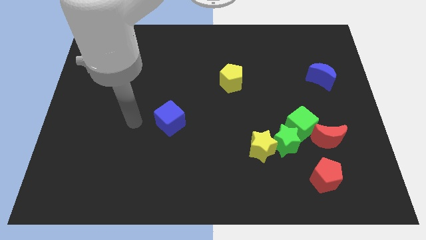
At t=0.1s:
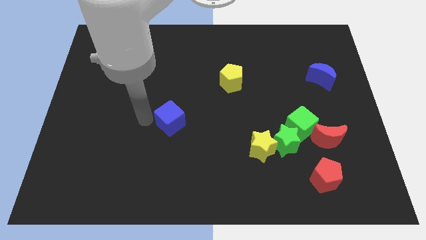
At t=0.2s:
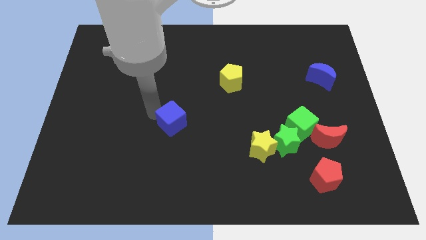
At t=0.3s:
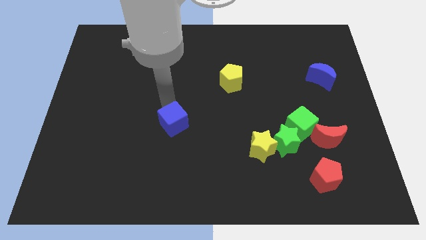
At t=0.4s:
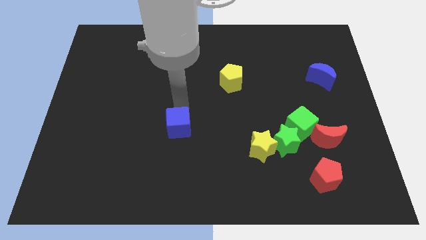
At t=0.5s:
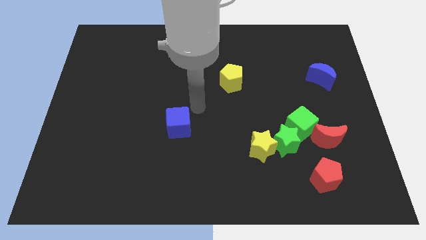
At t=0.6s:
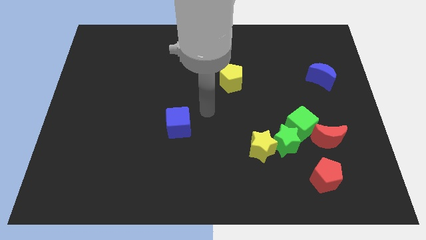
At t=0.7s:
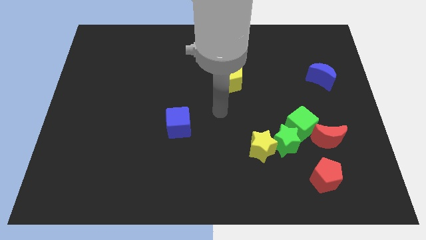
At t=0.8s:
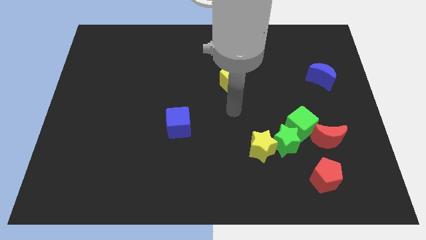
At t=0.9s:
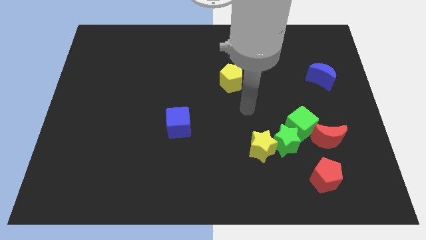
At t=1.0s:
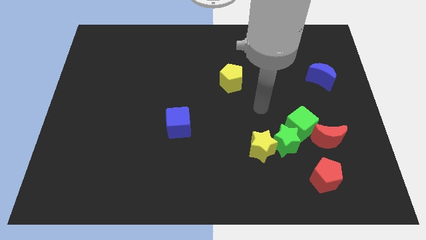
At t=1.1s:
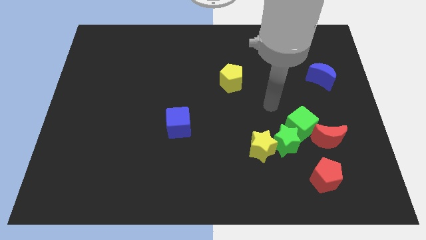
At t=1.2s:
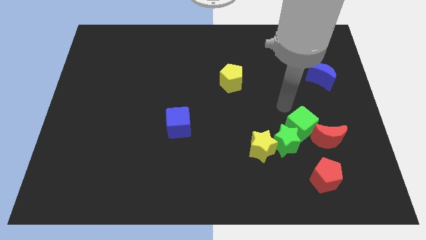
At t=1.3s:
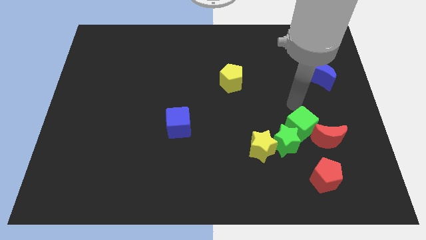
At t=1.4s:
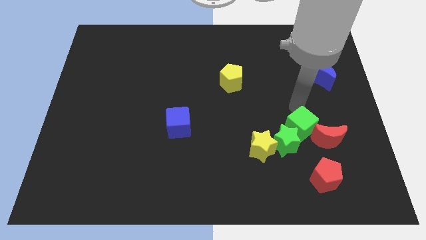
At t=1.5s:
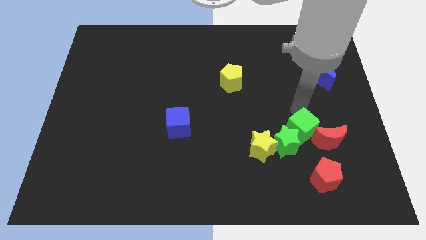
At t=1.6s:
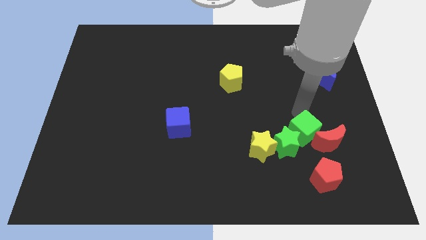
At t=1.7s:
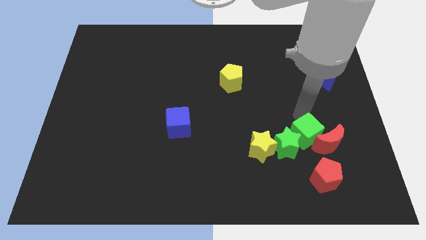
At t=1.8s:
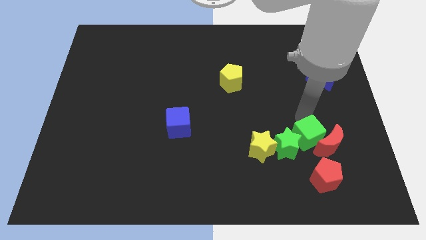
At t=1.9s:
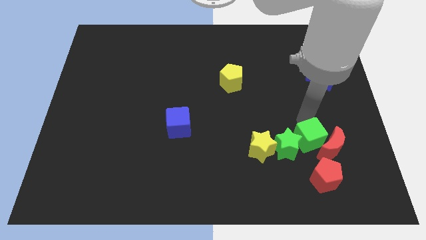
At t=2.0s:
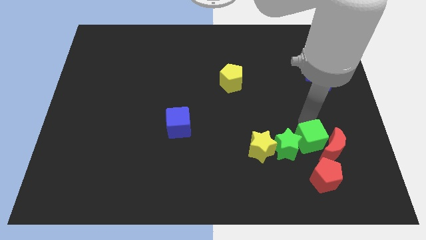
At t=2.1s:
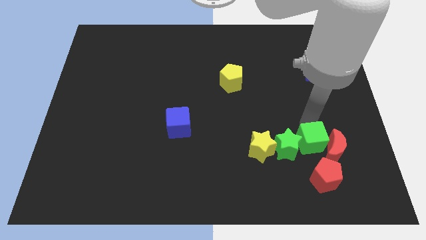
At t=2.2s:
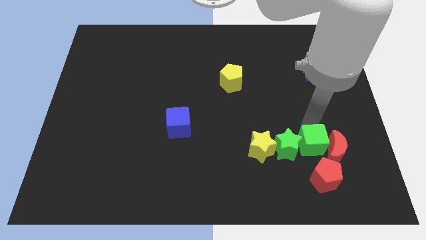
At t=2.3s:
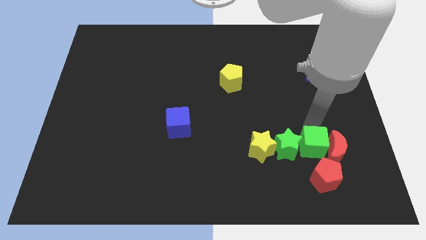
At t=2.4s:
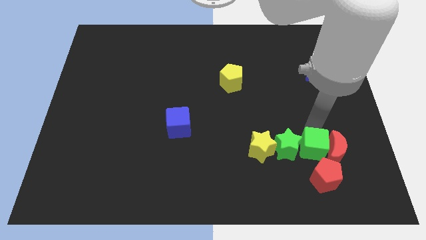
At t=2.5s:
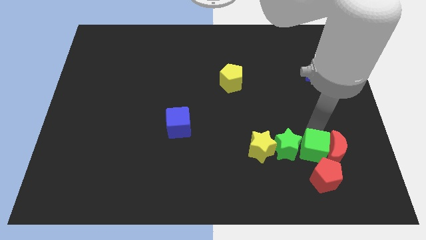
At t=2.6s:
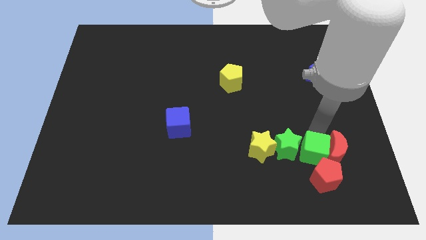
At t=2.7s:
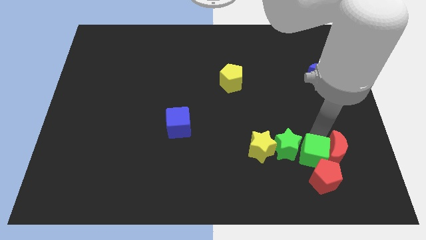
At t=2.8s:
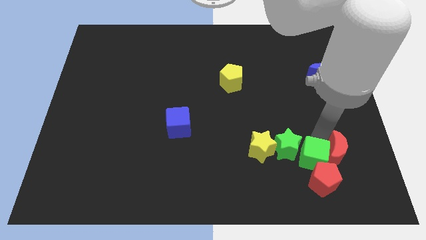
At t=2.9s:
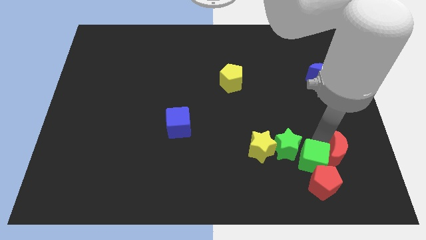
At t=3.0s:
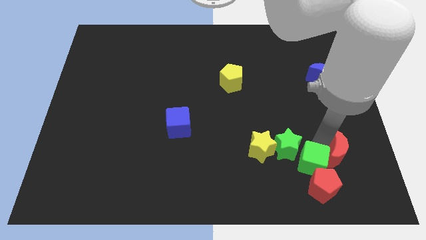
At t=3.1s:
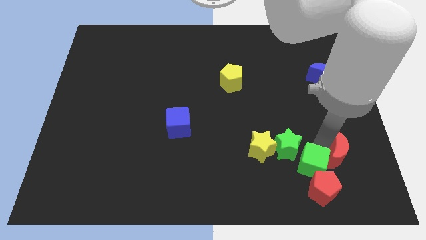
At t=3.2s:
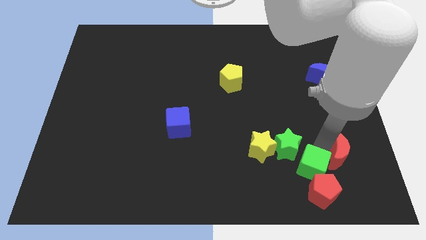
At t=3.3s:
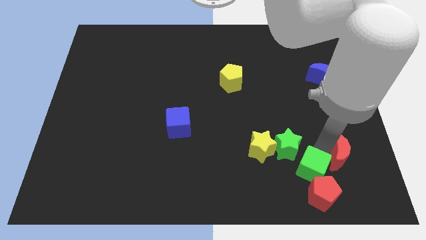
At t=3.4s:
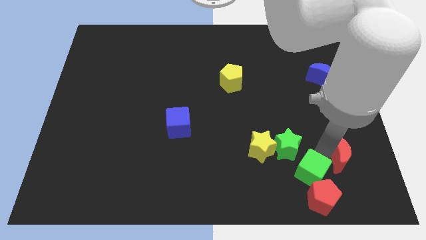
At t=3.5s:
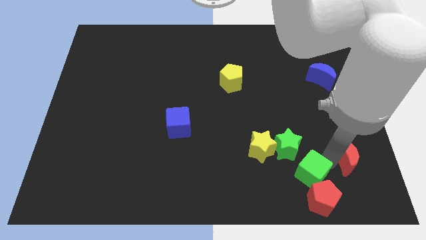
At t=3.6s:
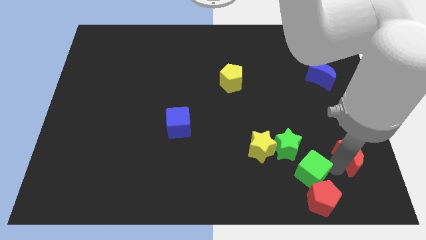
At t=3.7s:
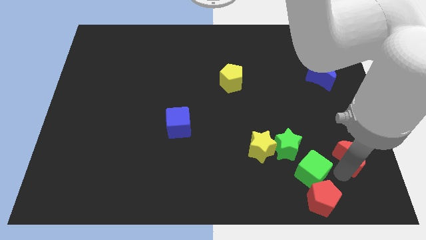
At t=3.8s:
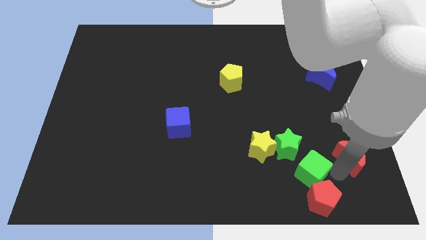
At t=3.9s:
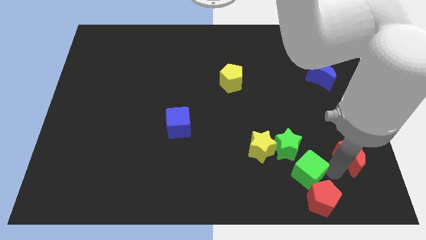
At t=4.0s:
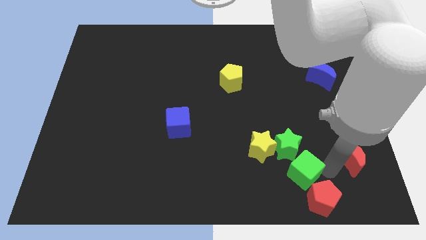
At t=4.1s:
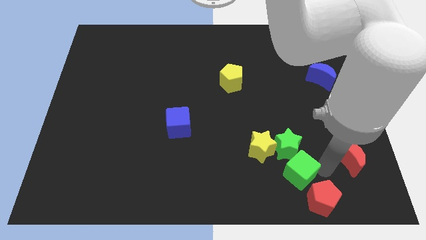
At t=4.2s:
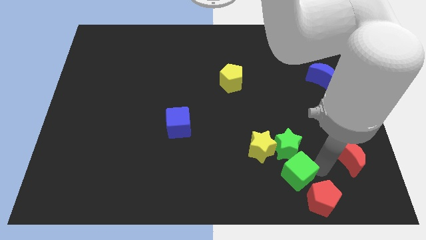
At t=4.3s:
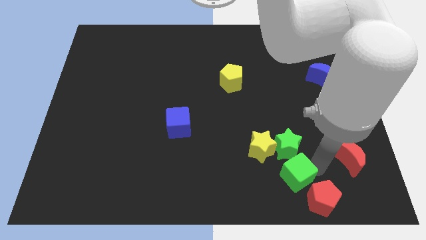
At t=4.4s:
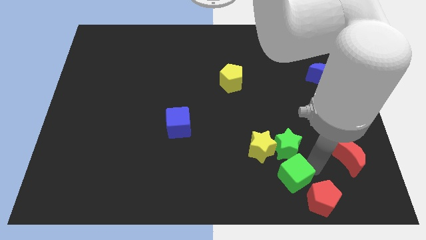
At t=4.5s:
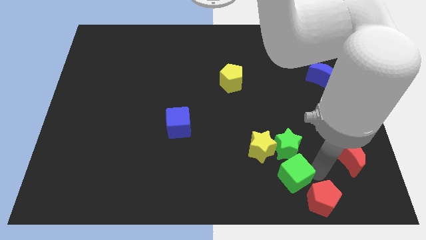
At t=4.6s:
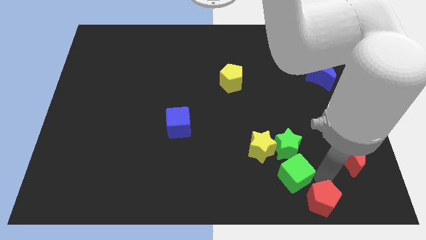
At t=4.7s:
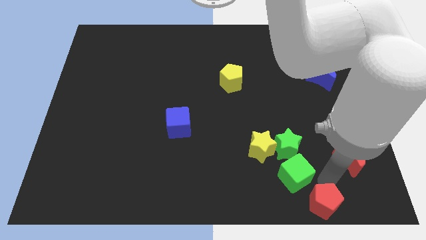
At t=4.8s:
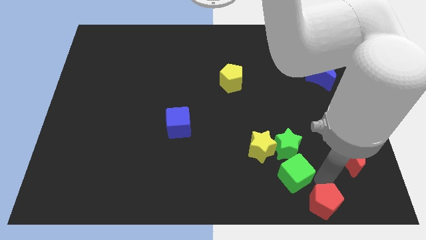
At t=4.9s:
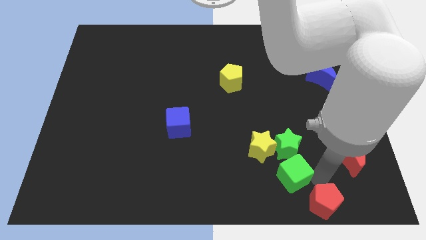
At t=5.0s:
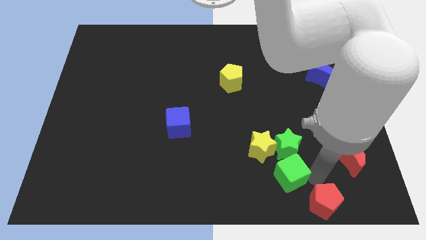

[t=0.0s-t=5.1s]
put the green cube diagonally down and to the left of the green star

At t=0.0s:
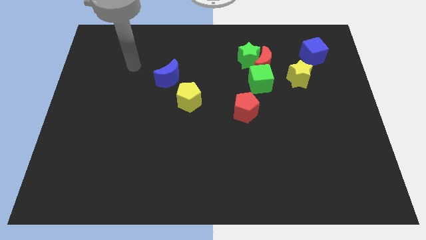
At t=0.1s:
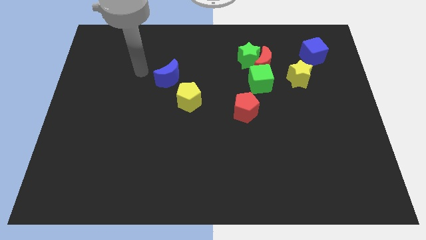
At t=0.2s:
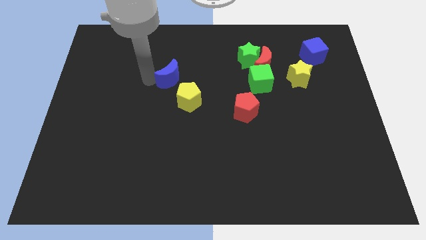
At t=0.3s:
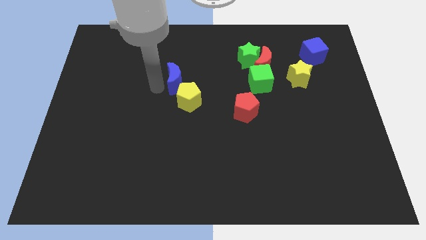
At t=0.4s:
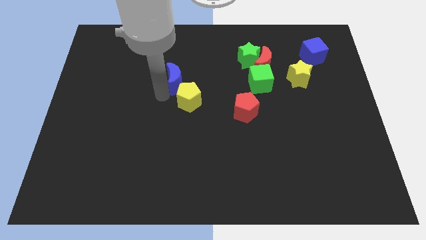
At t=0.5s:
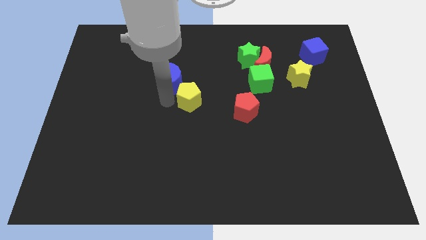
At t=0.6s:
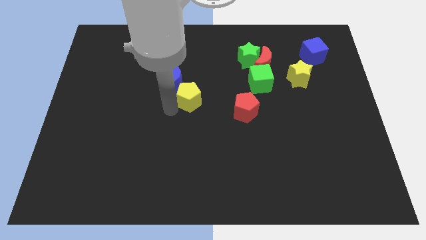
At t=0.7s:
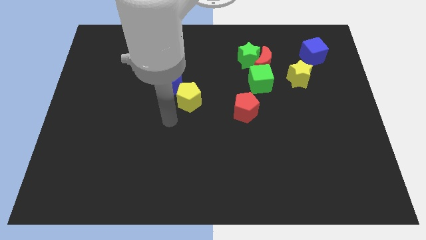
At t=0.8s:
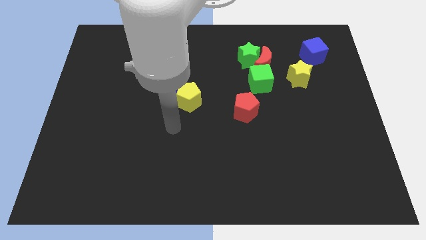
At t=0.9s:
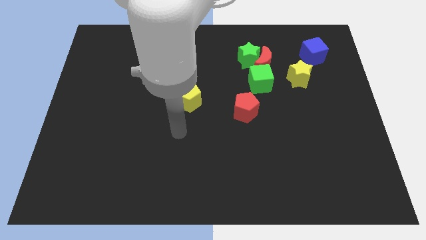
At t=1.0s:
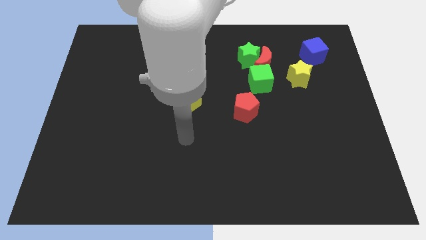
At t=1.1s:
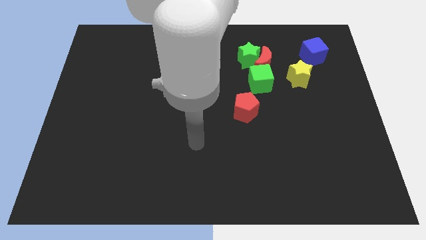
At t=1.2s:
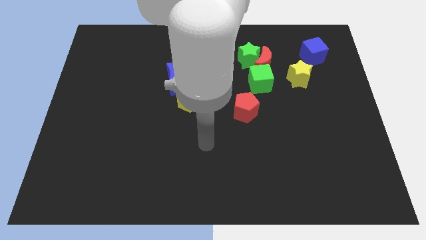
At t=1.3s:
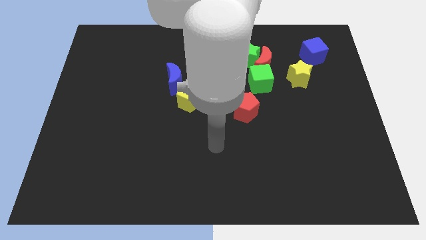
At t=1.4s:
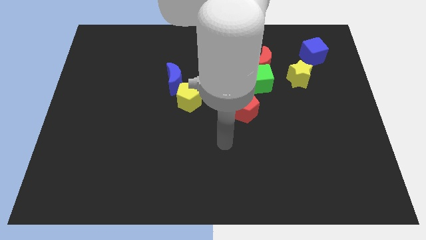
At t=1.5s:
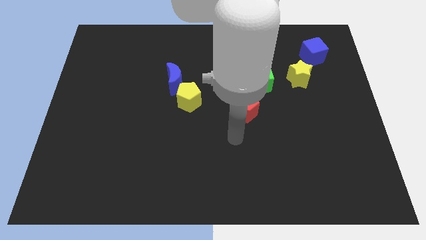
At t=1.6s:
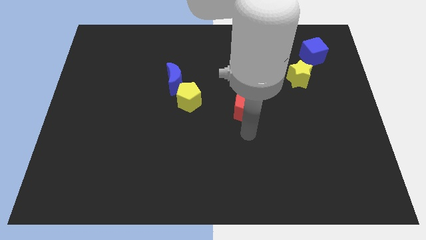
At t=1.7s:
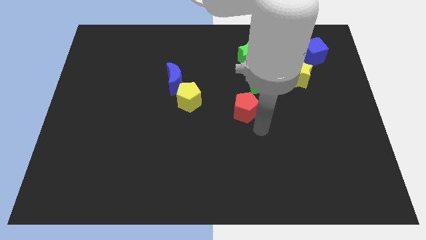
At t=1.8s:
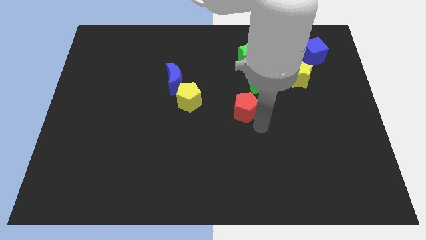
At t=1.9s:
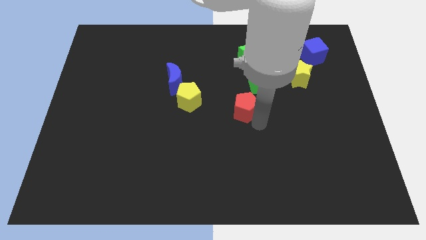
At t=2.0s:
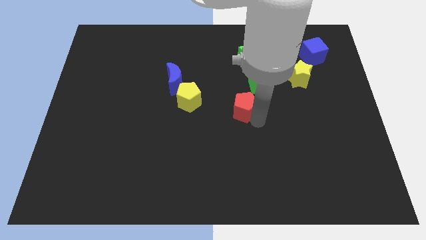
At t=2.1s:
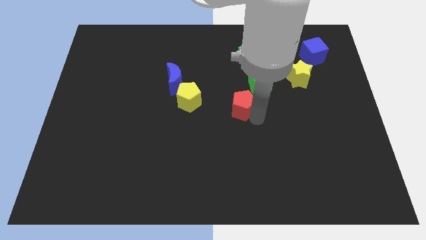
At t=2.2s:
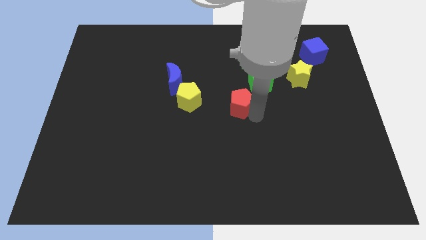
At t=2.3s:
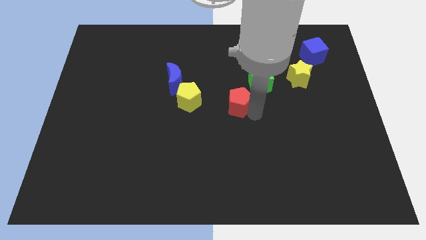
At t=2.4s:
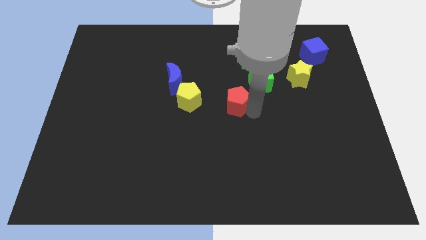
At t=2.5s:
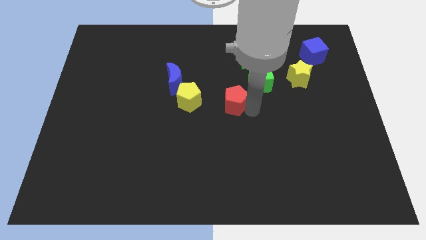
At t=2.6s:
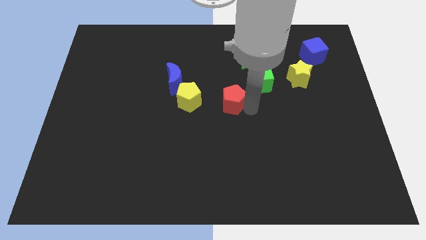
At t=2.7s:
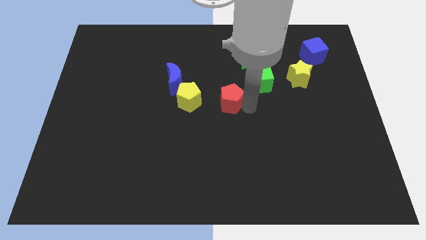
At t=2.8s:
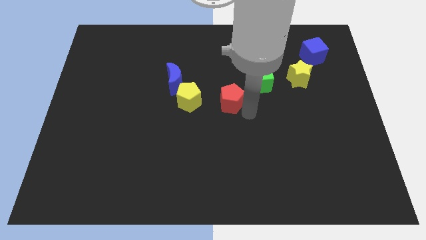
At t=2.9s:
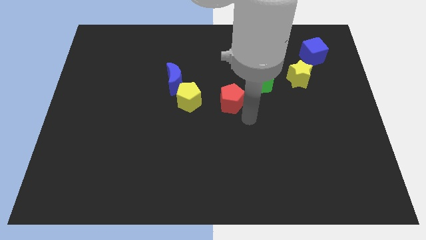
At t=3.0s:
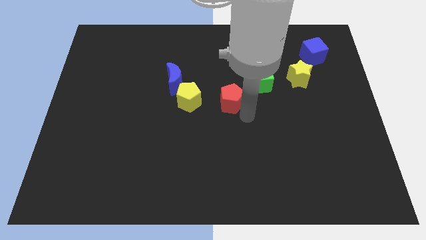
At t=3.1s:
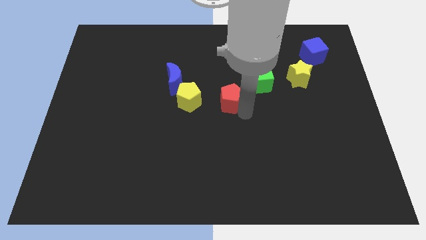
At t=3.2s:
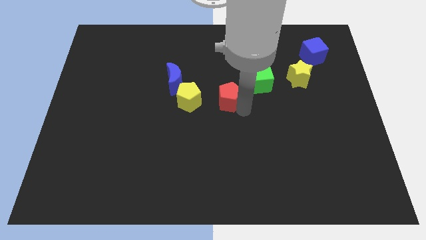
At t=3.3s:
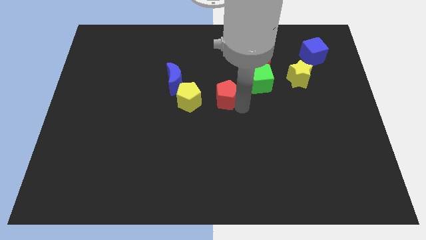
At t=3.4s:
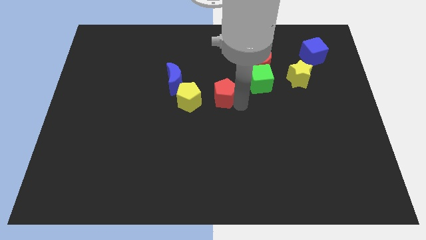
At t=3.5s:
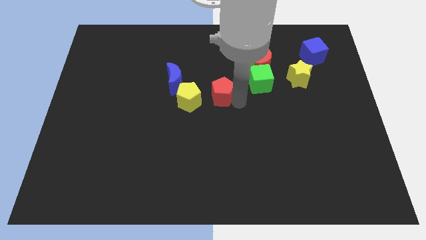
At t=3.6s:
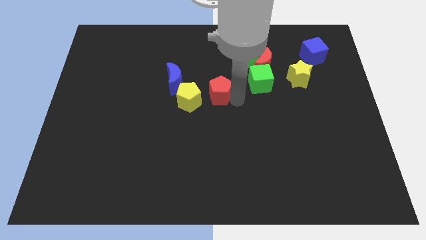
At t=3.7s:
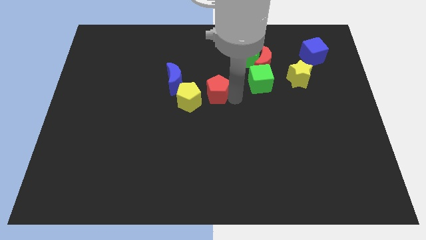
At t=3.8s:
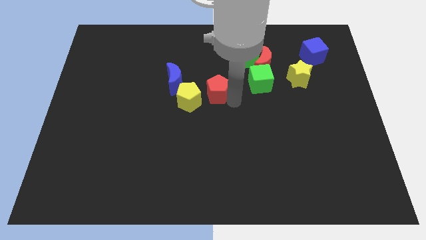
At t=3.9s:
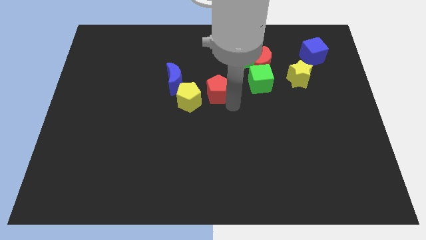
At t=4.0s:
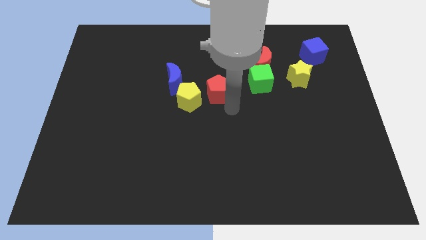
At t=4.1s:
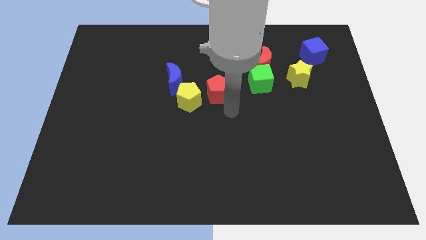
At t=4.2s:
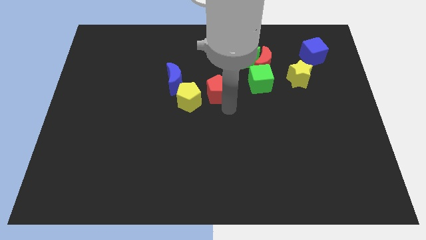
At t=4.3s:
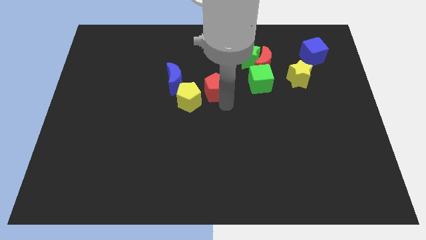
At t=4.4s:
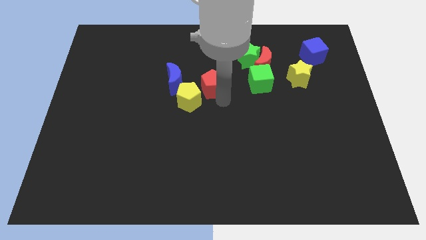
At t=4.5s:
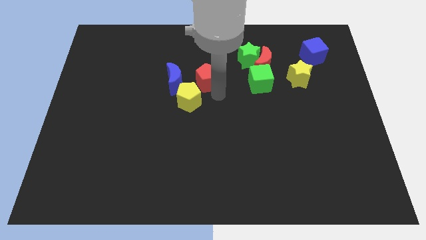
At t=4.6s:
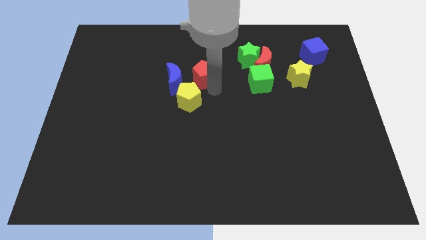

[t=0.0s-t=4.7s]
slide the red pentagon diagonally up and to the right of the blue moon
